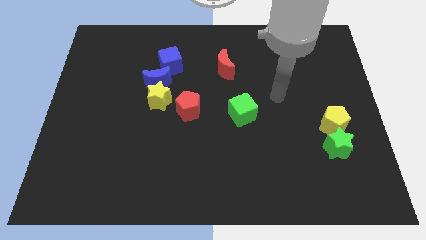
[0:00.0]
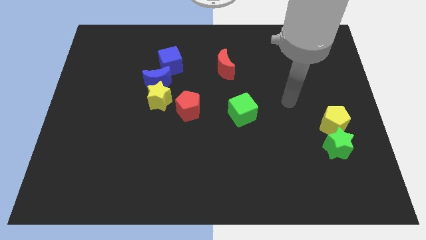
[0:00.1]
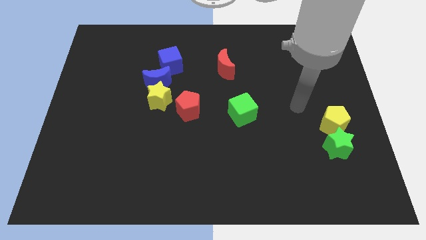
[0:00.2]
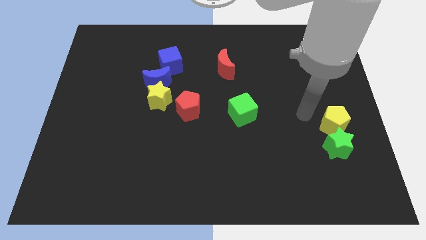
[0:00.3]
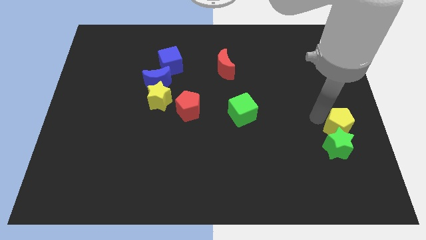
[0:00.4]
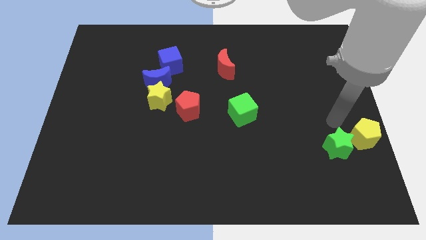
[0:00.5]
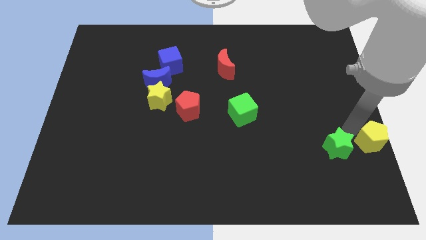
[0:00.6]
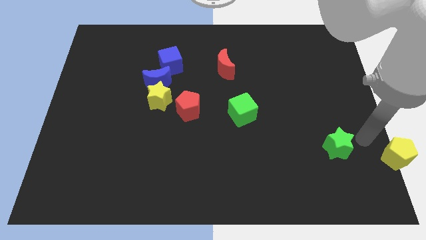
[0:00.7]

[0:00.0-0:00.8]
separate the green star from the yellow pentagon

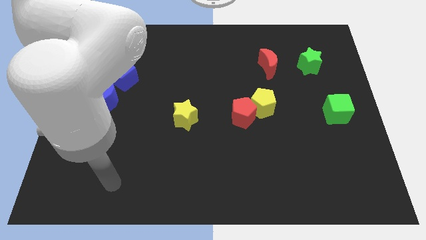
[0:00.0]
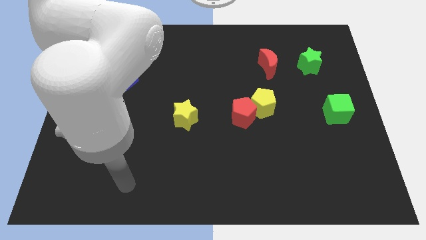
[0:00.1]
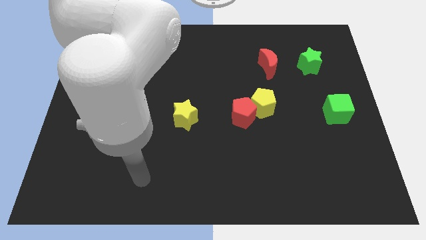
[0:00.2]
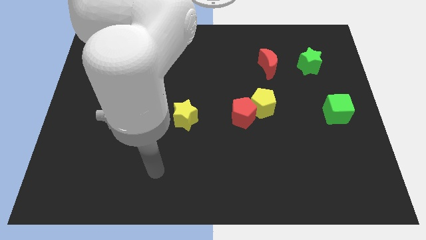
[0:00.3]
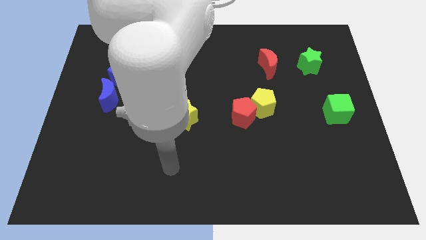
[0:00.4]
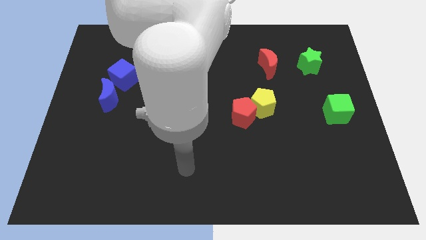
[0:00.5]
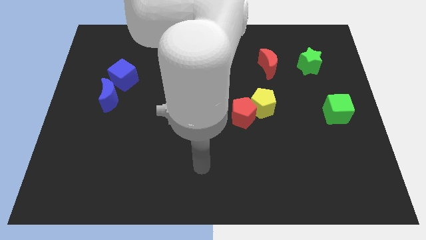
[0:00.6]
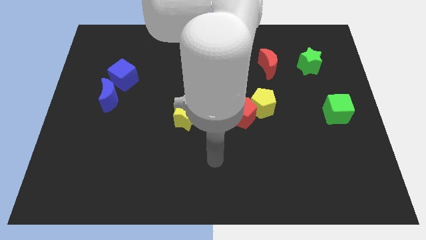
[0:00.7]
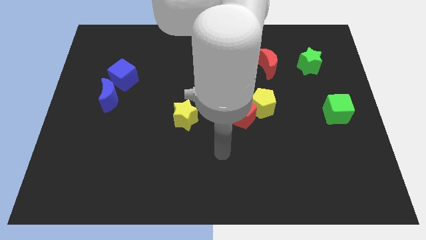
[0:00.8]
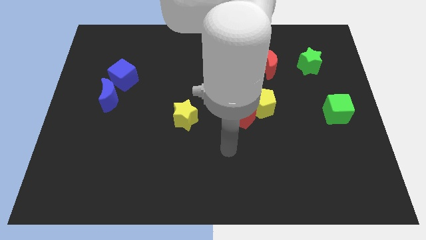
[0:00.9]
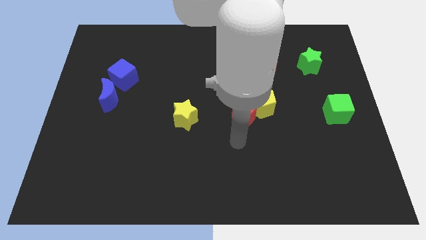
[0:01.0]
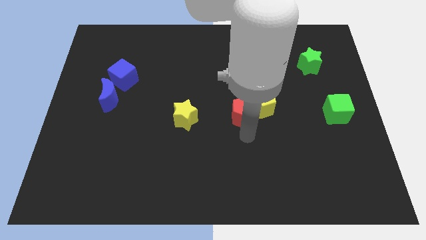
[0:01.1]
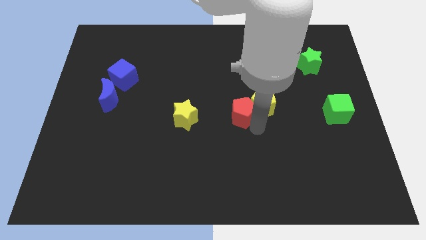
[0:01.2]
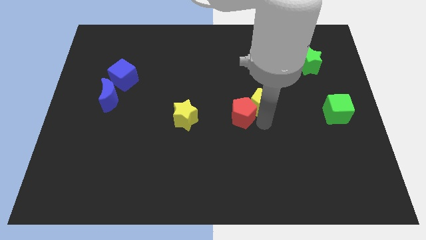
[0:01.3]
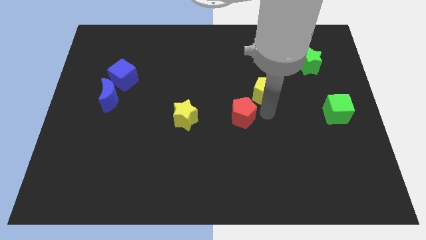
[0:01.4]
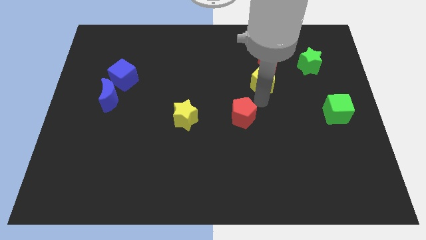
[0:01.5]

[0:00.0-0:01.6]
pull the red pentagon apart from the yellow pentagon

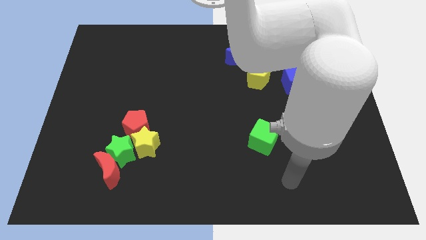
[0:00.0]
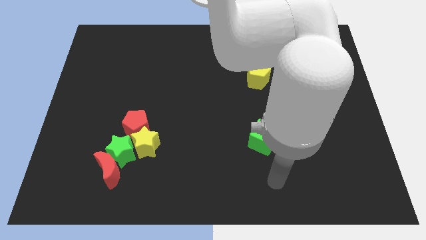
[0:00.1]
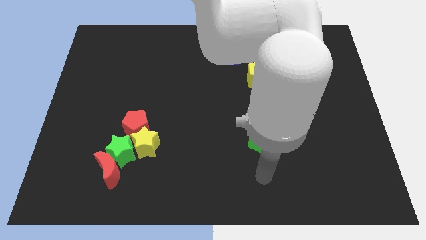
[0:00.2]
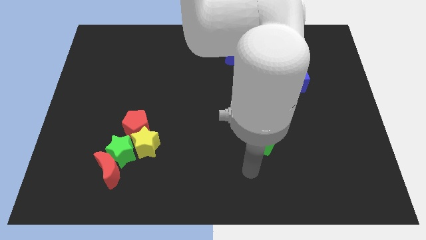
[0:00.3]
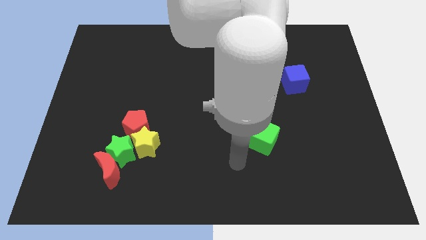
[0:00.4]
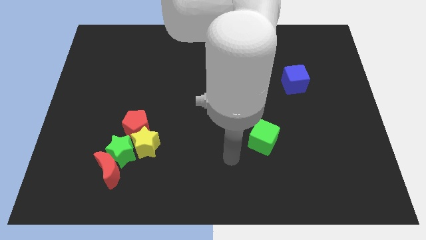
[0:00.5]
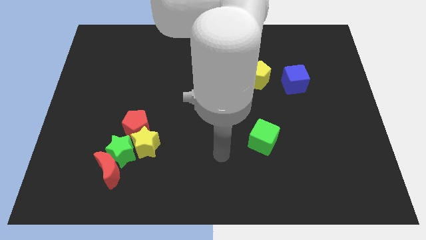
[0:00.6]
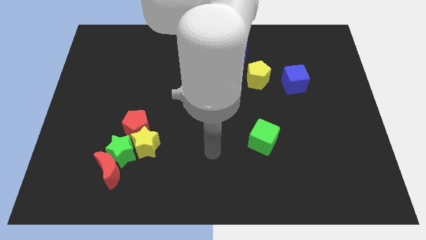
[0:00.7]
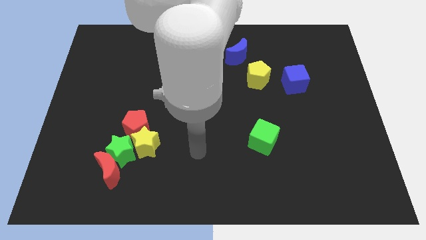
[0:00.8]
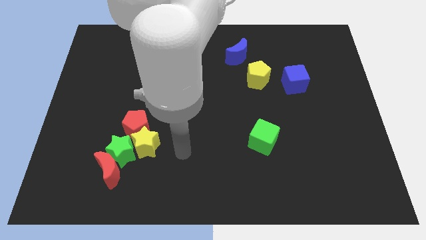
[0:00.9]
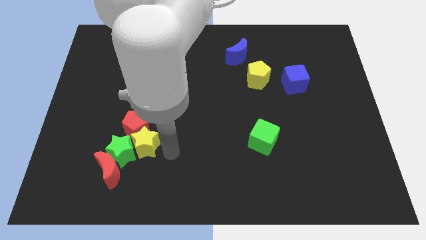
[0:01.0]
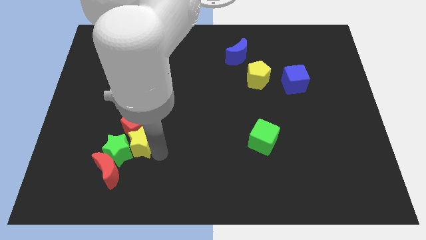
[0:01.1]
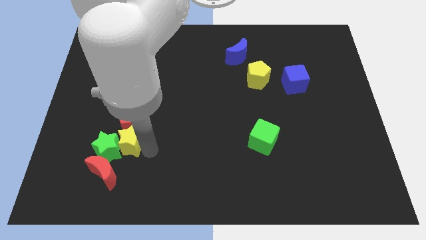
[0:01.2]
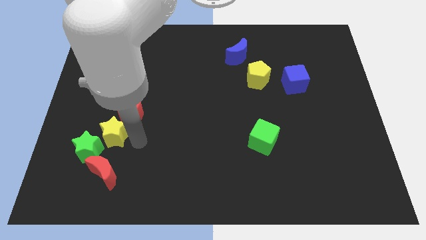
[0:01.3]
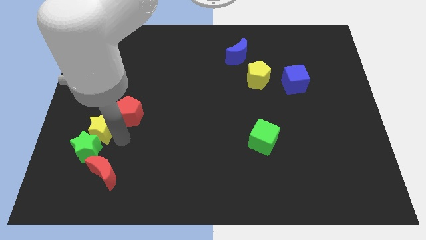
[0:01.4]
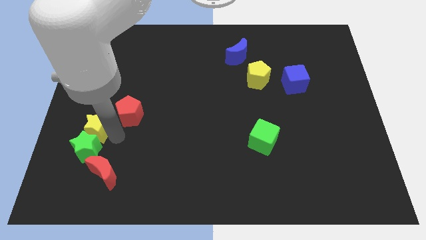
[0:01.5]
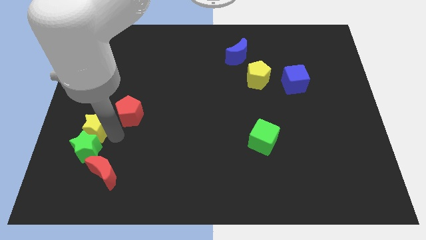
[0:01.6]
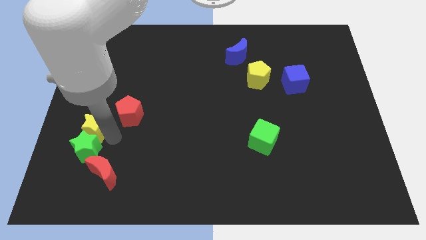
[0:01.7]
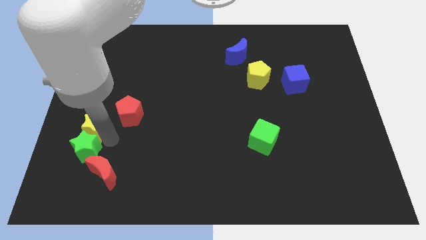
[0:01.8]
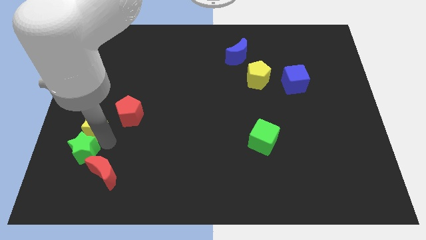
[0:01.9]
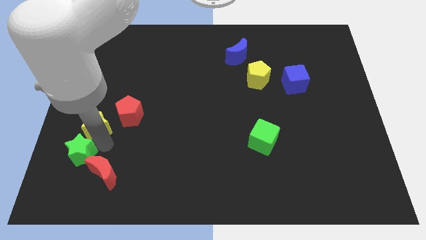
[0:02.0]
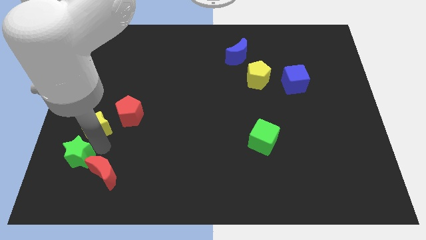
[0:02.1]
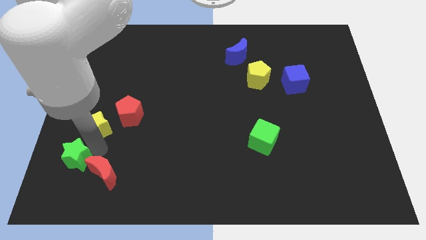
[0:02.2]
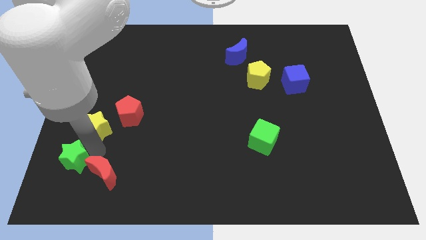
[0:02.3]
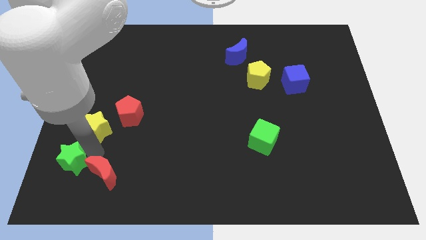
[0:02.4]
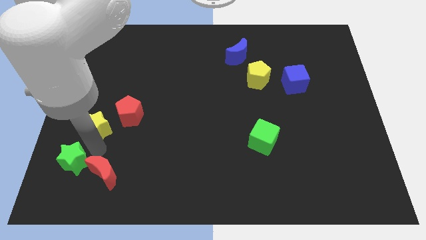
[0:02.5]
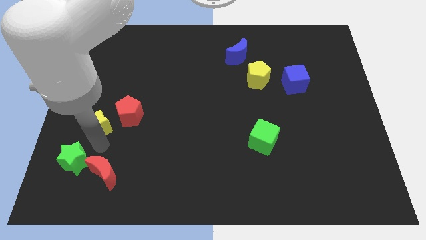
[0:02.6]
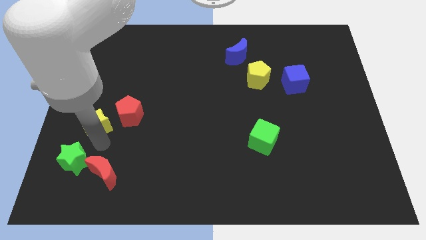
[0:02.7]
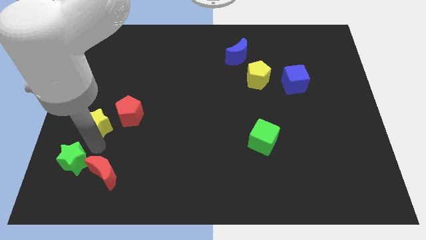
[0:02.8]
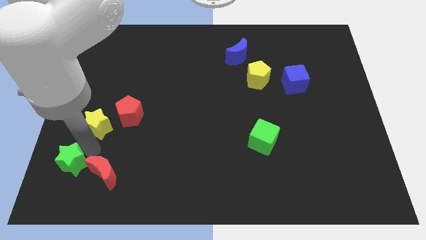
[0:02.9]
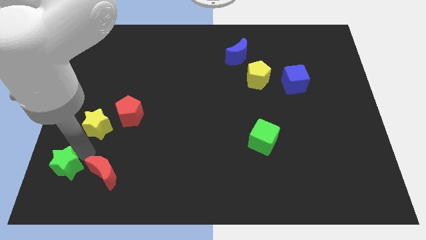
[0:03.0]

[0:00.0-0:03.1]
separate the green star from the red moon, yellow star, and red pentagon

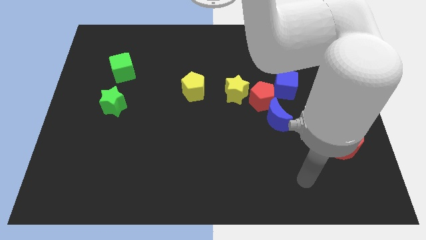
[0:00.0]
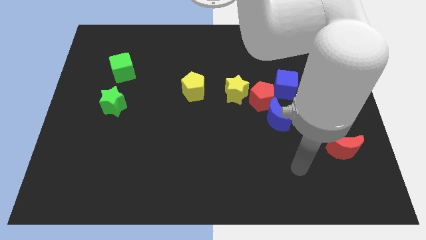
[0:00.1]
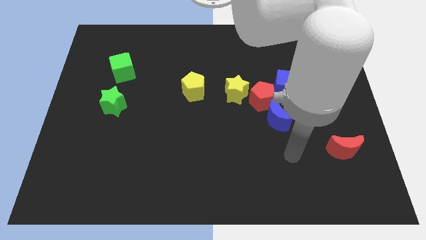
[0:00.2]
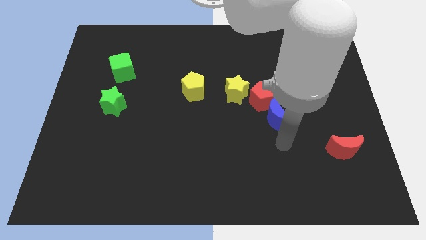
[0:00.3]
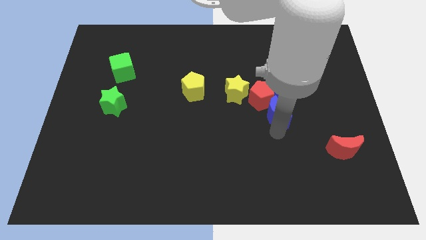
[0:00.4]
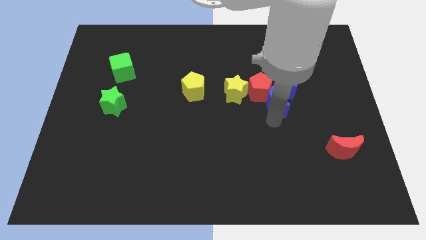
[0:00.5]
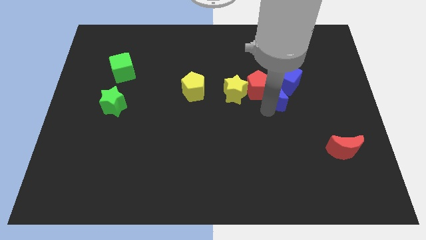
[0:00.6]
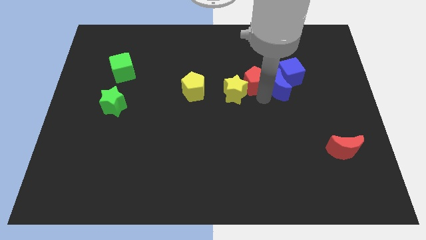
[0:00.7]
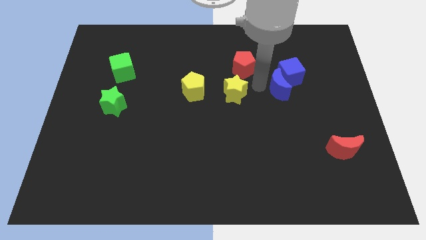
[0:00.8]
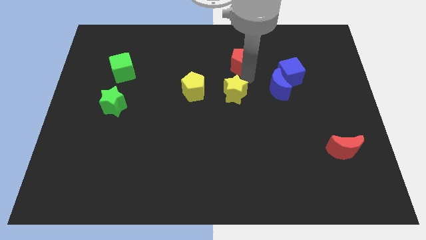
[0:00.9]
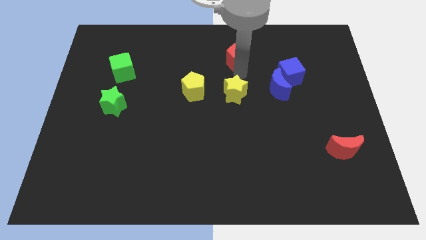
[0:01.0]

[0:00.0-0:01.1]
pull the yellow star apart from the red pentagon

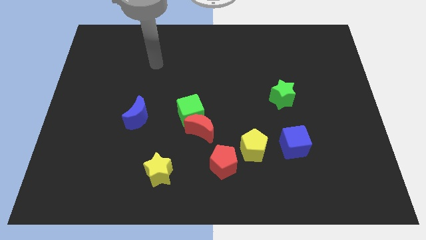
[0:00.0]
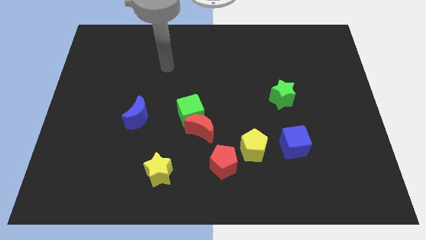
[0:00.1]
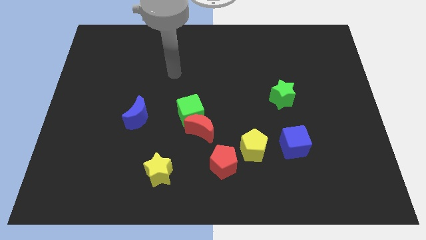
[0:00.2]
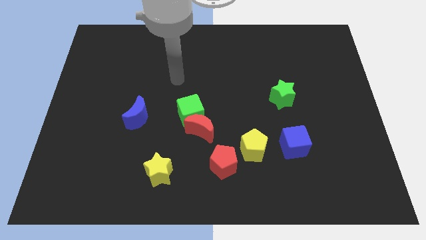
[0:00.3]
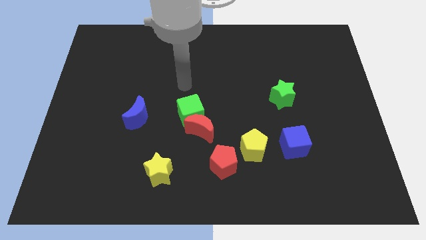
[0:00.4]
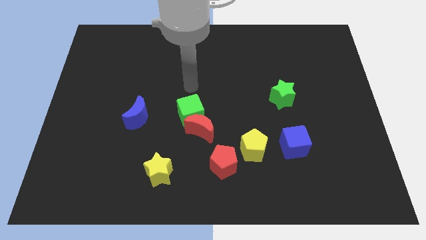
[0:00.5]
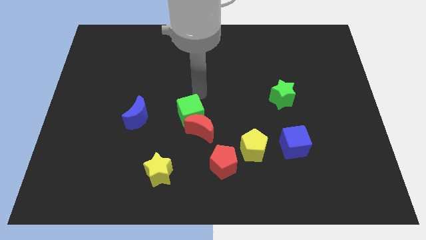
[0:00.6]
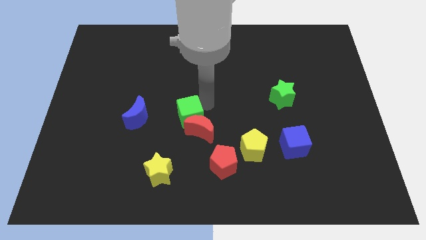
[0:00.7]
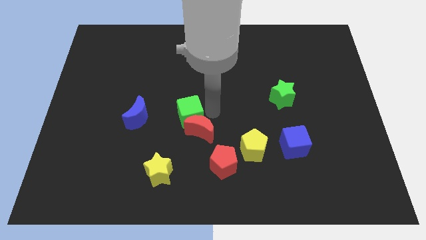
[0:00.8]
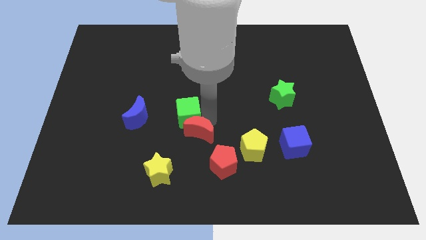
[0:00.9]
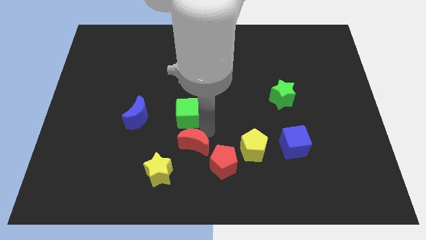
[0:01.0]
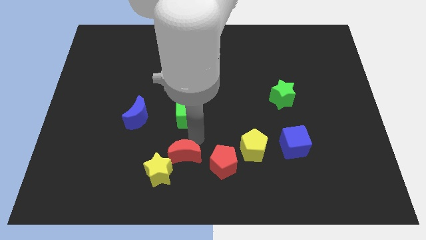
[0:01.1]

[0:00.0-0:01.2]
separate the green cube from the red moon

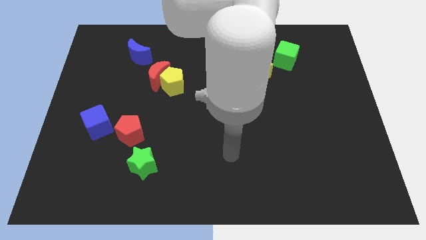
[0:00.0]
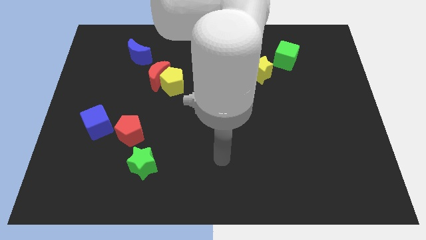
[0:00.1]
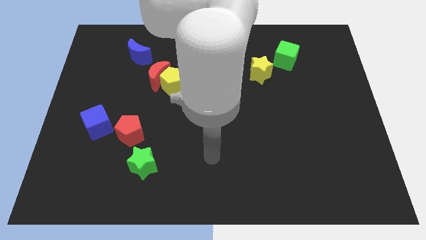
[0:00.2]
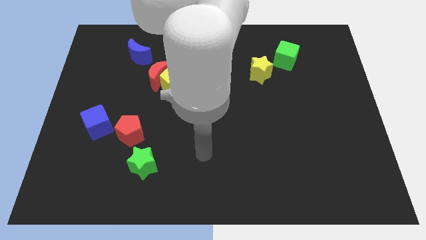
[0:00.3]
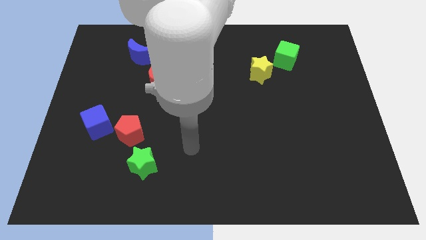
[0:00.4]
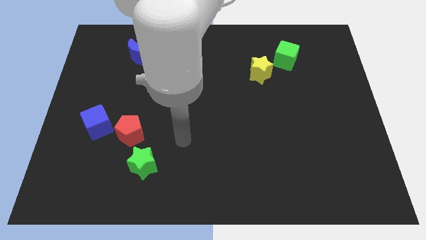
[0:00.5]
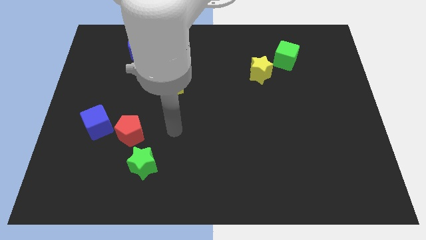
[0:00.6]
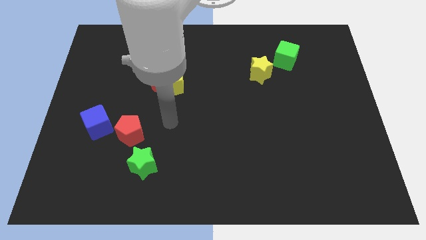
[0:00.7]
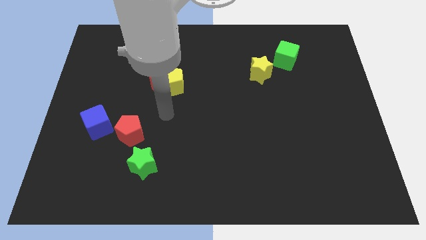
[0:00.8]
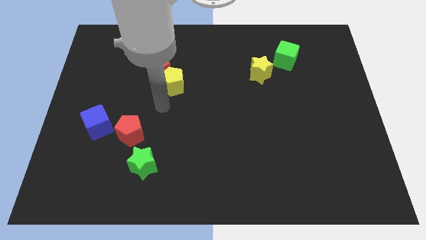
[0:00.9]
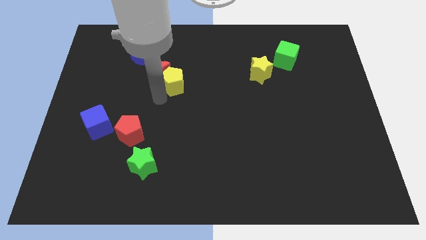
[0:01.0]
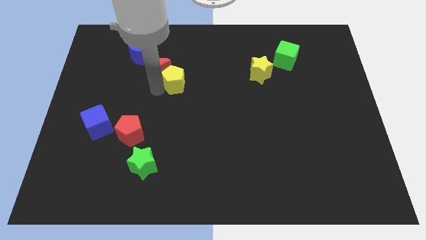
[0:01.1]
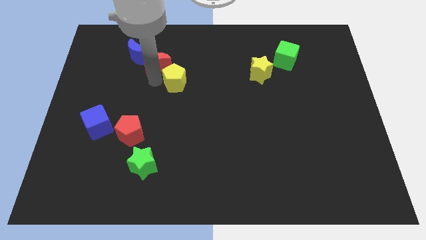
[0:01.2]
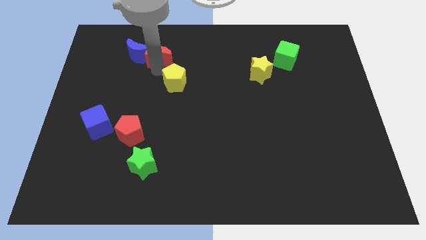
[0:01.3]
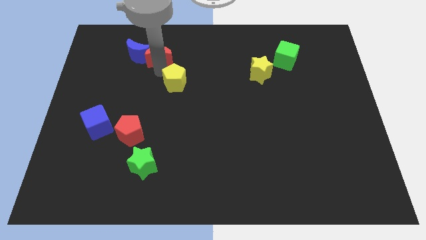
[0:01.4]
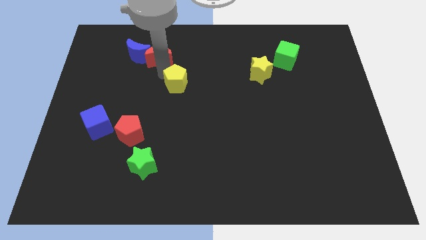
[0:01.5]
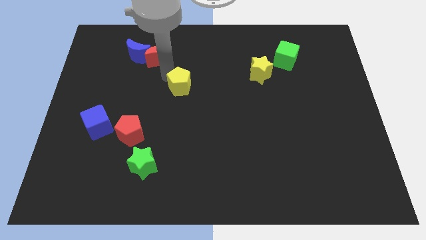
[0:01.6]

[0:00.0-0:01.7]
separate the yellow pentagon from the red moon
